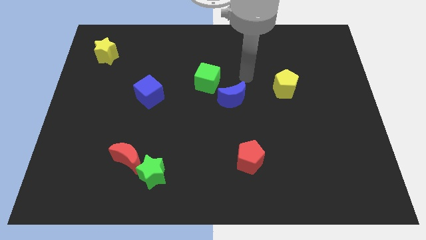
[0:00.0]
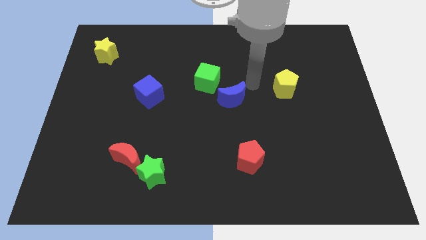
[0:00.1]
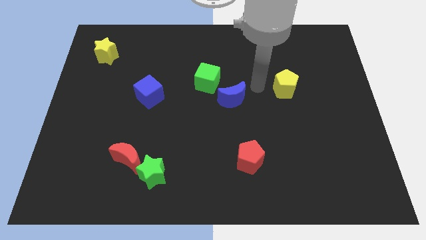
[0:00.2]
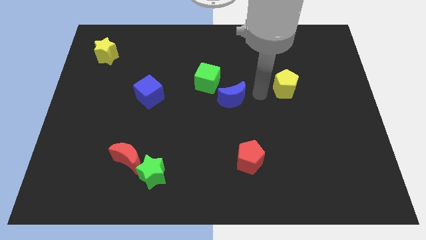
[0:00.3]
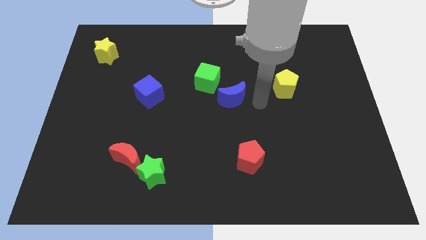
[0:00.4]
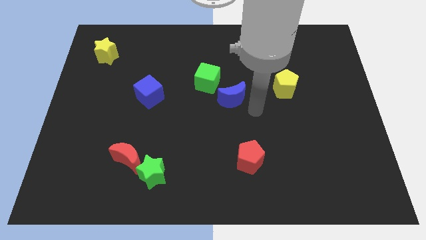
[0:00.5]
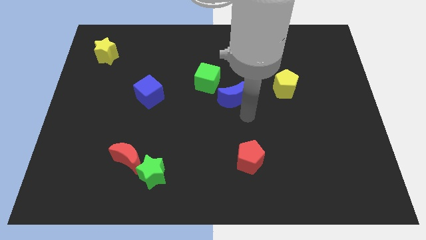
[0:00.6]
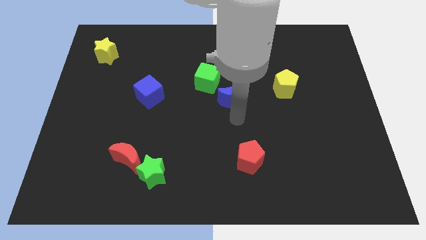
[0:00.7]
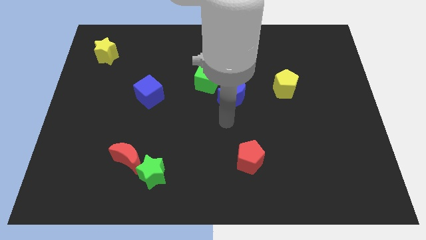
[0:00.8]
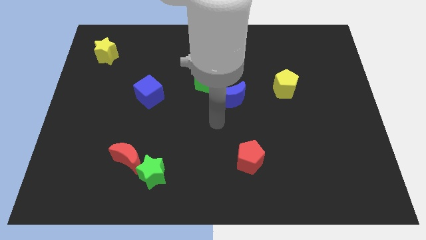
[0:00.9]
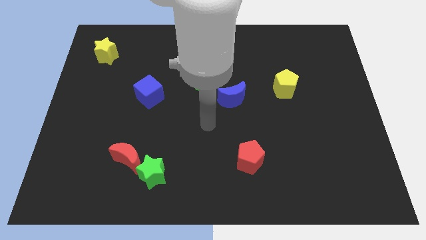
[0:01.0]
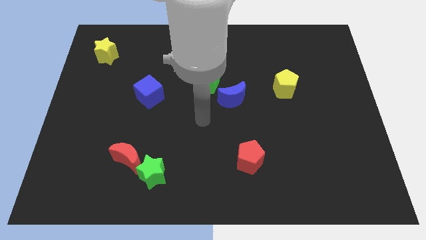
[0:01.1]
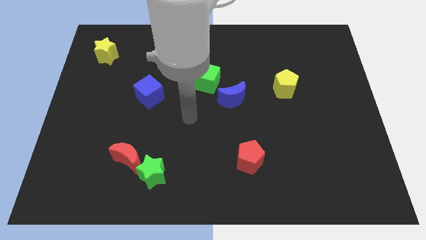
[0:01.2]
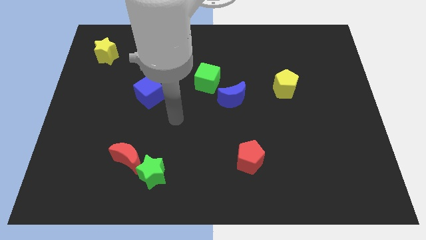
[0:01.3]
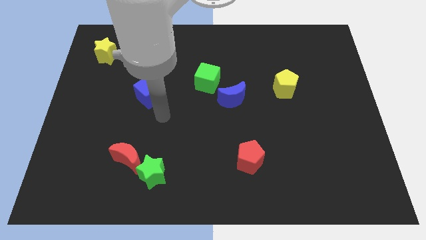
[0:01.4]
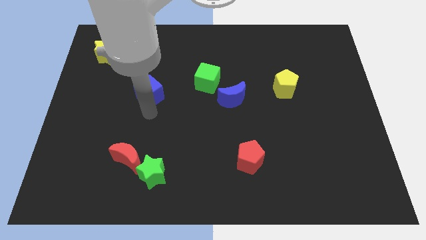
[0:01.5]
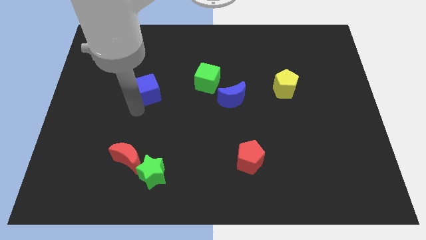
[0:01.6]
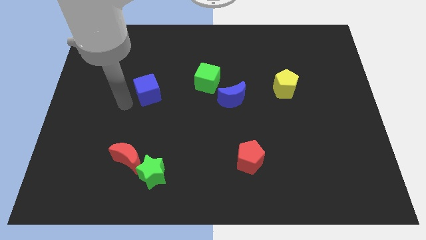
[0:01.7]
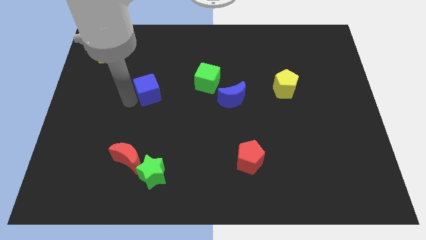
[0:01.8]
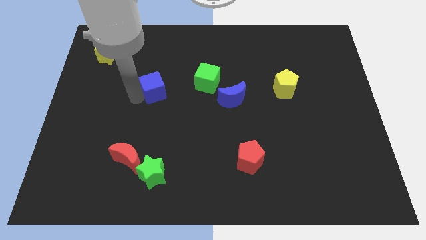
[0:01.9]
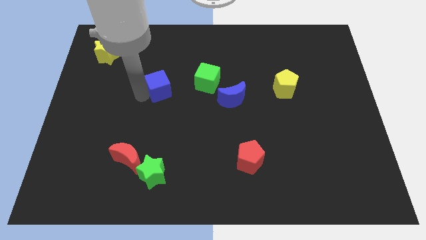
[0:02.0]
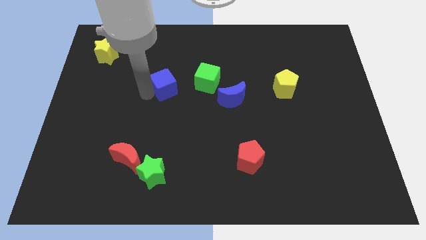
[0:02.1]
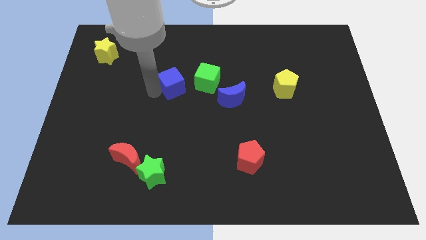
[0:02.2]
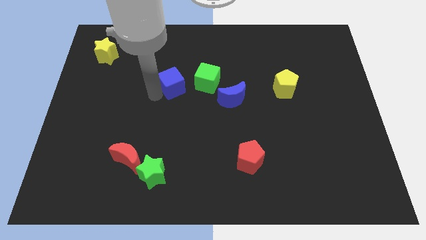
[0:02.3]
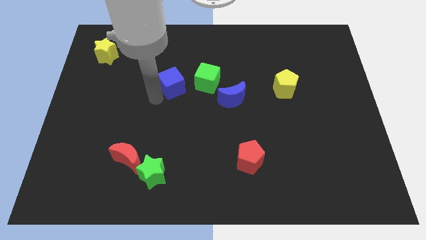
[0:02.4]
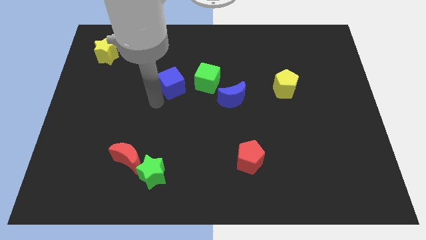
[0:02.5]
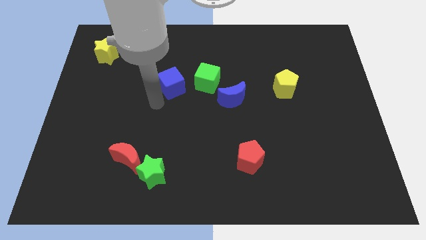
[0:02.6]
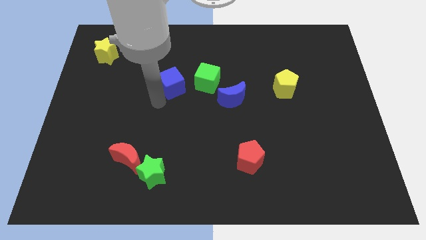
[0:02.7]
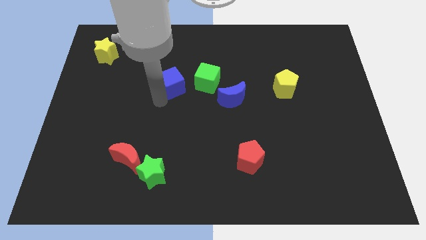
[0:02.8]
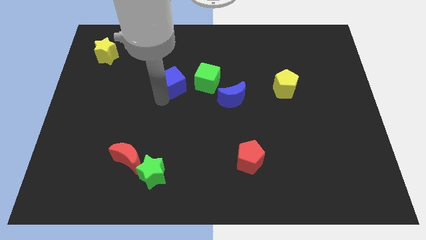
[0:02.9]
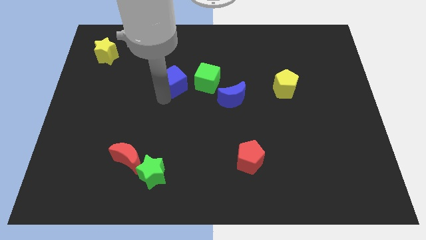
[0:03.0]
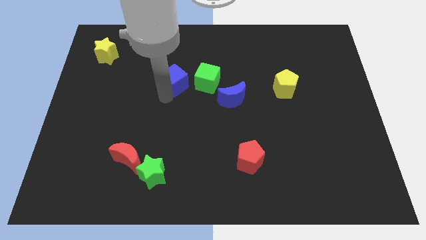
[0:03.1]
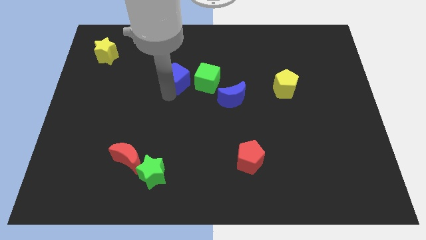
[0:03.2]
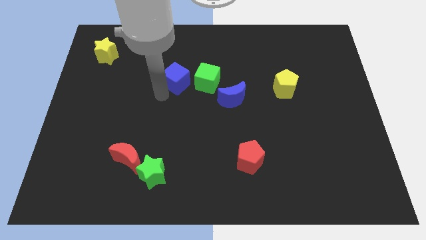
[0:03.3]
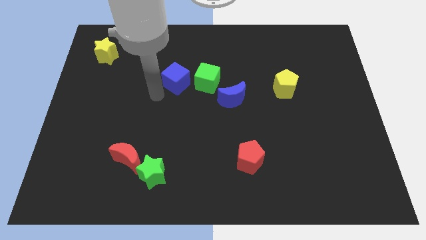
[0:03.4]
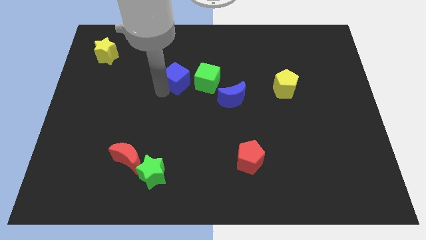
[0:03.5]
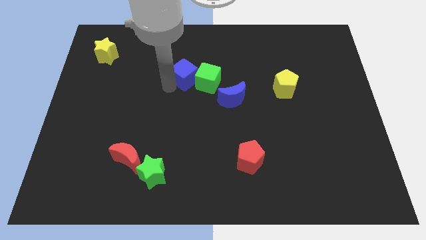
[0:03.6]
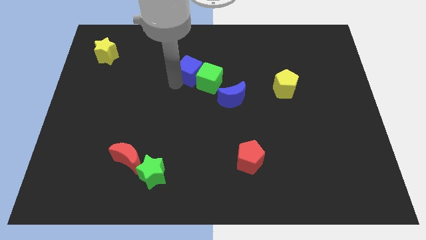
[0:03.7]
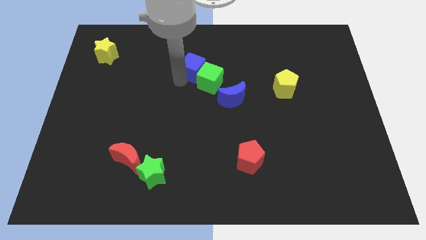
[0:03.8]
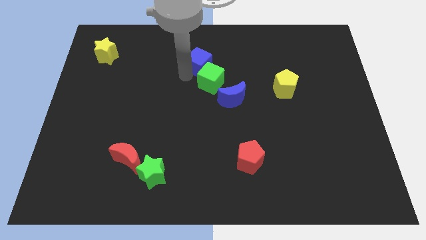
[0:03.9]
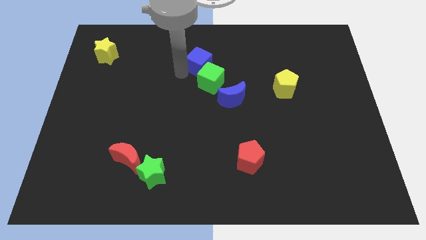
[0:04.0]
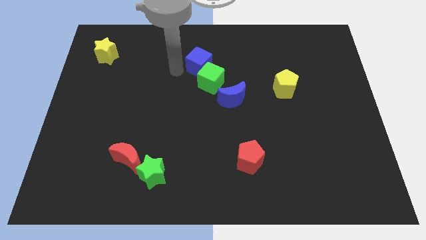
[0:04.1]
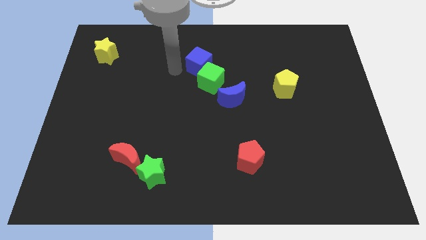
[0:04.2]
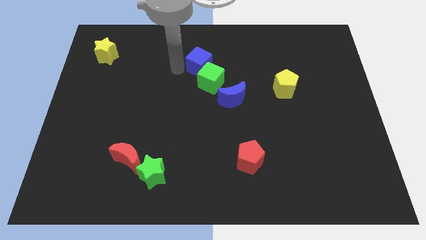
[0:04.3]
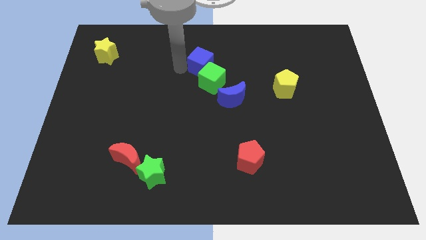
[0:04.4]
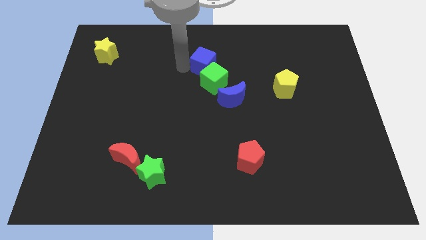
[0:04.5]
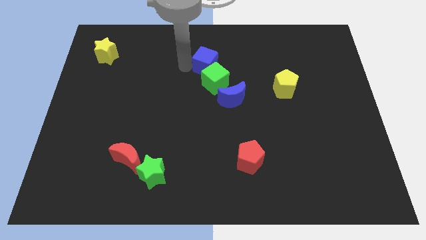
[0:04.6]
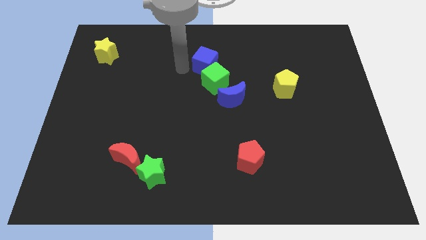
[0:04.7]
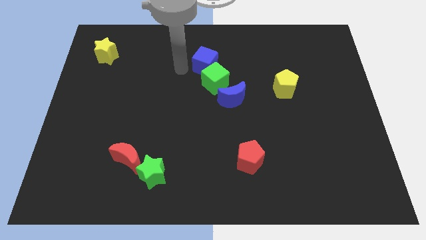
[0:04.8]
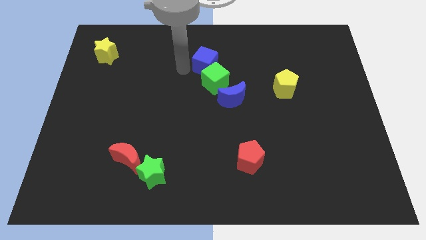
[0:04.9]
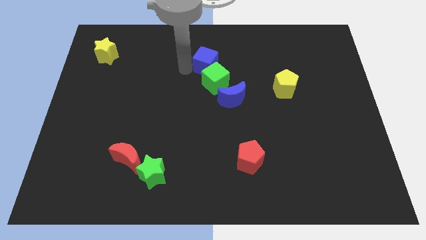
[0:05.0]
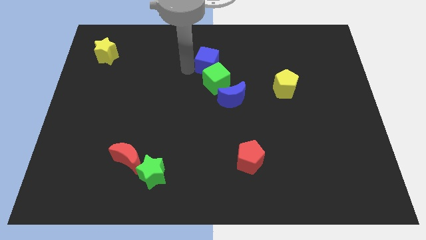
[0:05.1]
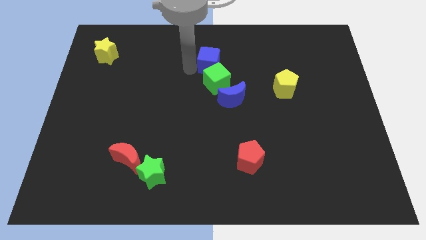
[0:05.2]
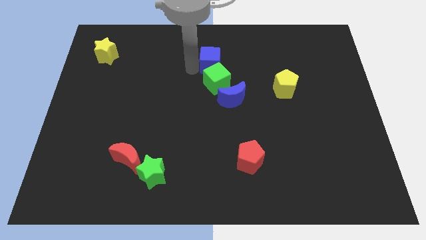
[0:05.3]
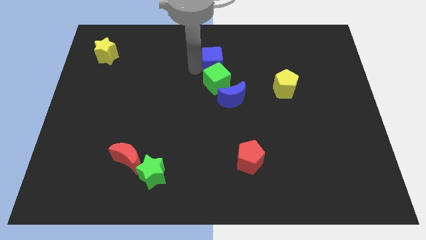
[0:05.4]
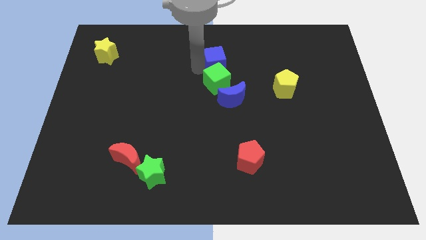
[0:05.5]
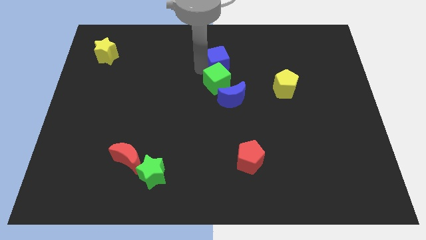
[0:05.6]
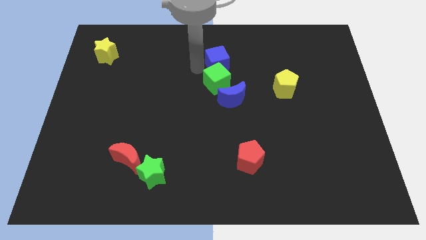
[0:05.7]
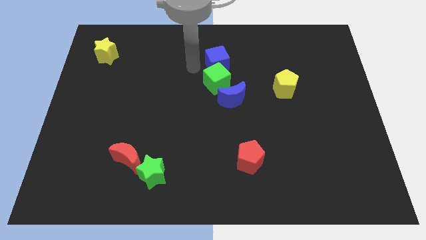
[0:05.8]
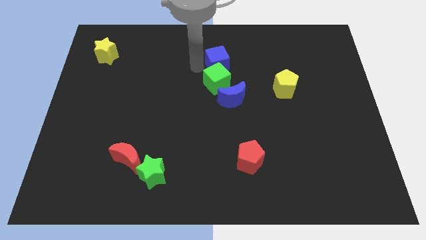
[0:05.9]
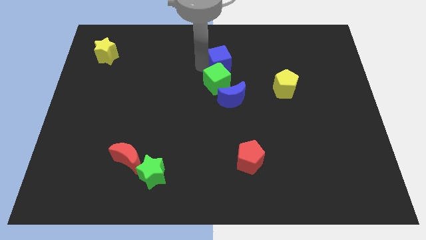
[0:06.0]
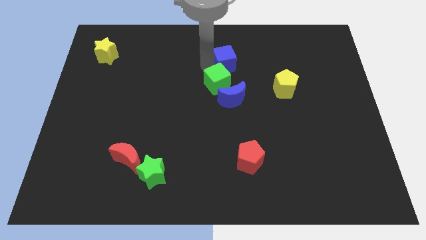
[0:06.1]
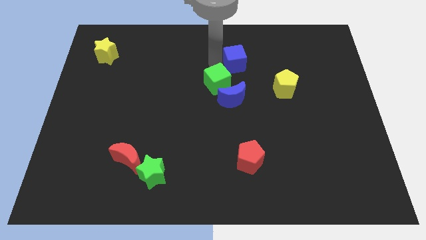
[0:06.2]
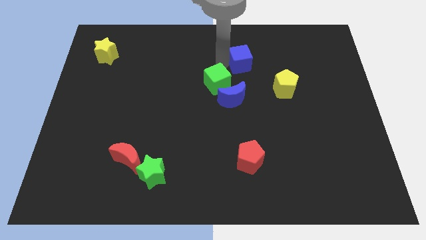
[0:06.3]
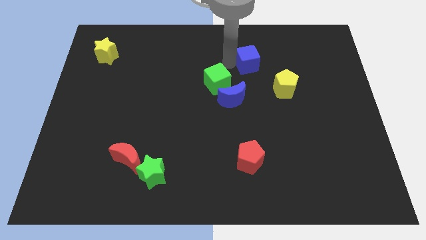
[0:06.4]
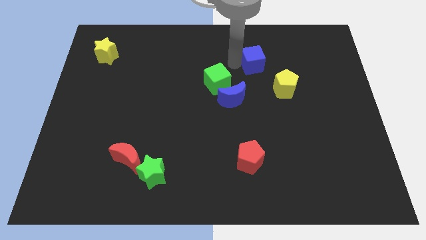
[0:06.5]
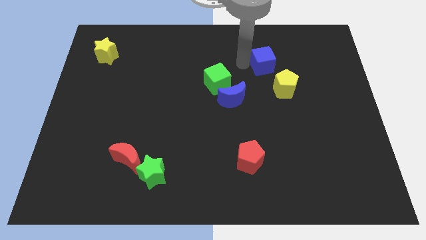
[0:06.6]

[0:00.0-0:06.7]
put the blue cube to the top of the yellow pentagon

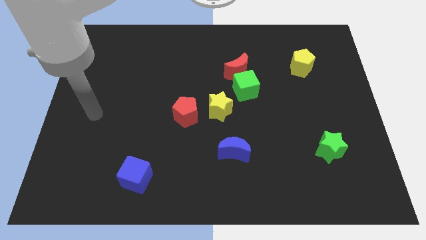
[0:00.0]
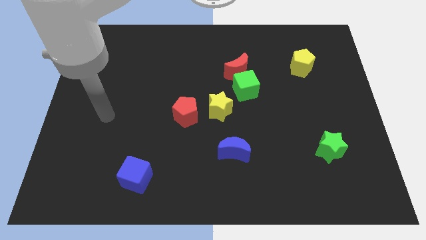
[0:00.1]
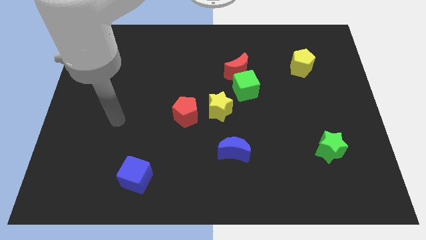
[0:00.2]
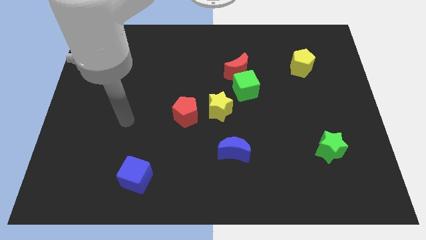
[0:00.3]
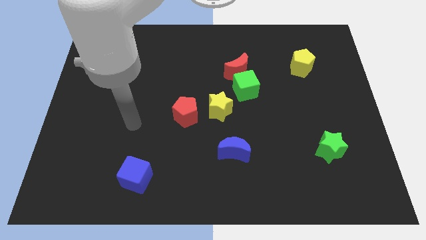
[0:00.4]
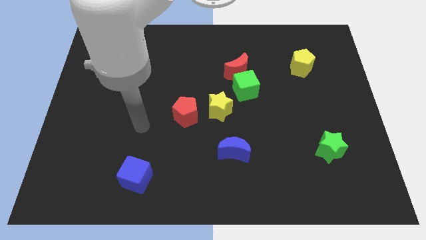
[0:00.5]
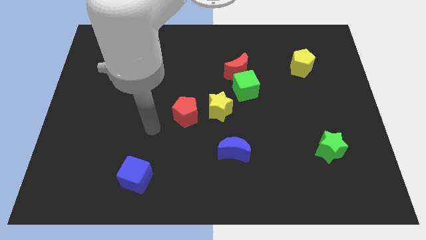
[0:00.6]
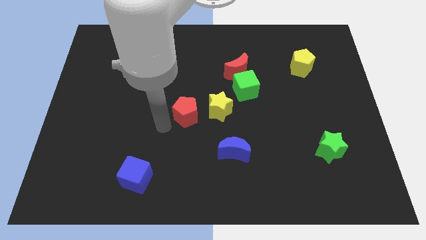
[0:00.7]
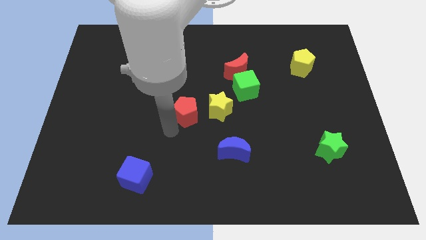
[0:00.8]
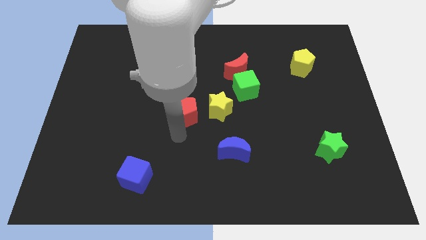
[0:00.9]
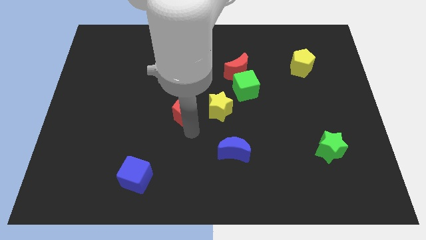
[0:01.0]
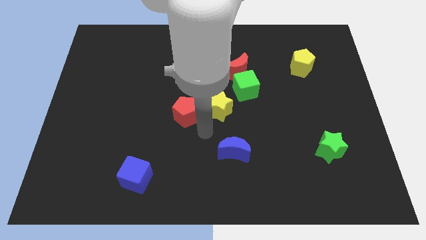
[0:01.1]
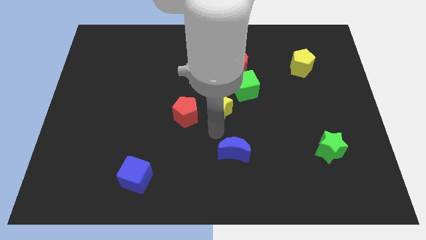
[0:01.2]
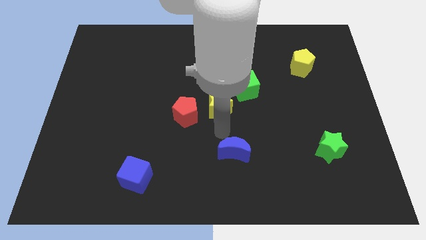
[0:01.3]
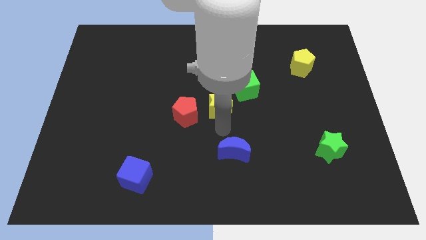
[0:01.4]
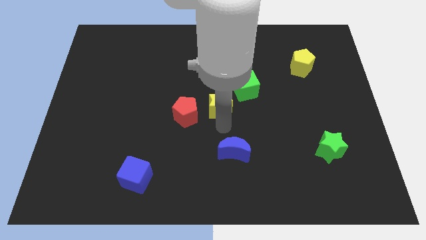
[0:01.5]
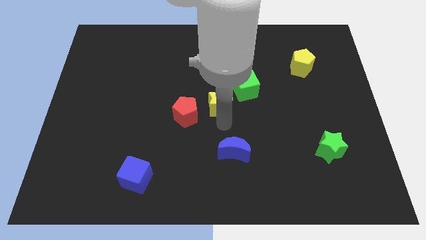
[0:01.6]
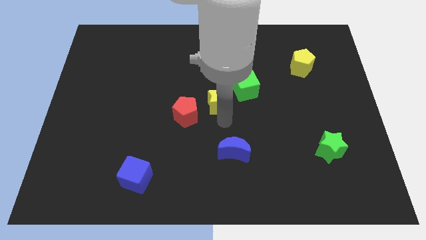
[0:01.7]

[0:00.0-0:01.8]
slide the yellow star to the bottom left of the red moon
